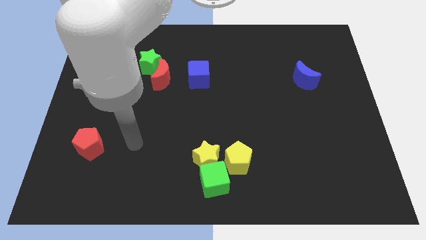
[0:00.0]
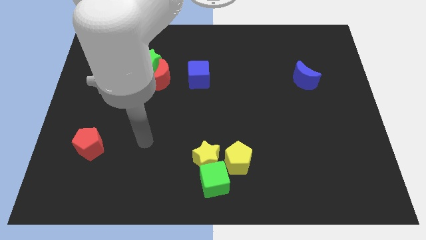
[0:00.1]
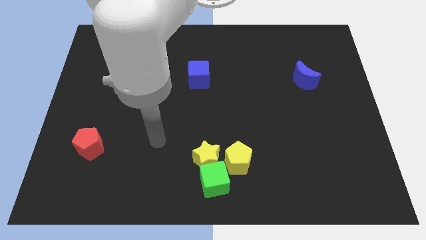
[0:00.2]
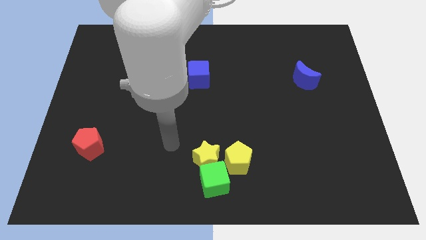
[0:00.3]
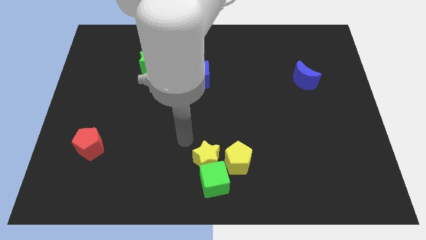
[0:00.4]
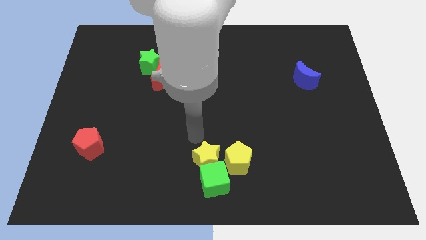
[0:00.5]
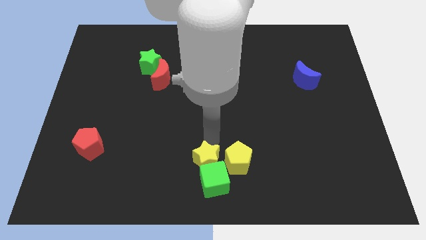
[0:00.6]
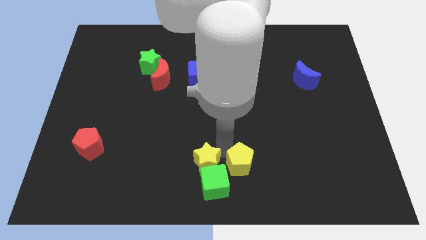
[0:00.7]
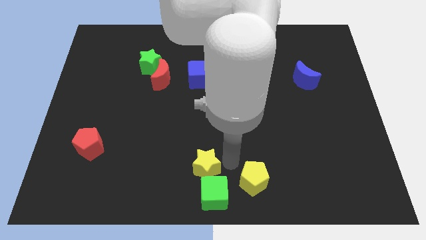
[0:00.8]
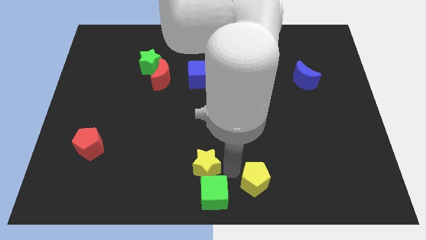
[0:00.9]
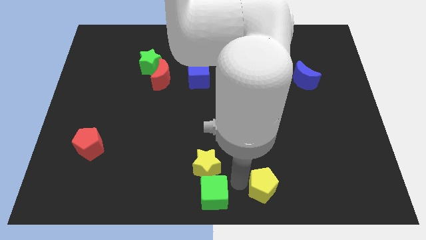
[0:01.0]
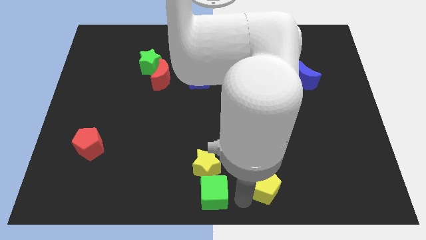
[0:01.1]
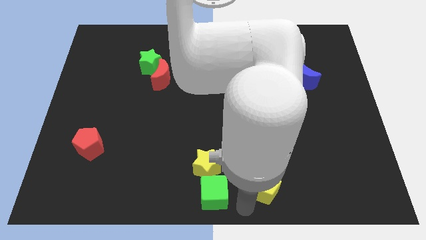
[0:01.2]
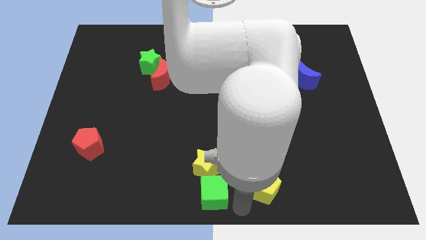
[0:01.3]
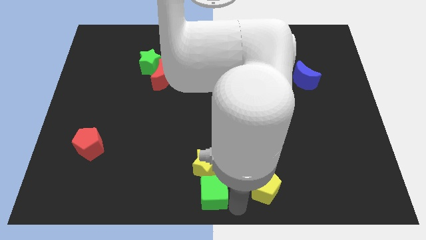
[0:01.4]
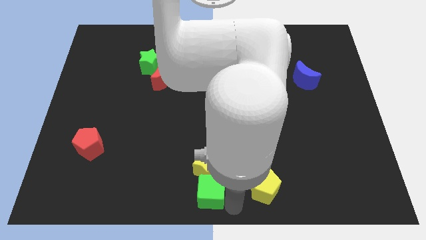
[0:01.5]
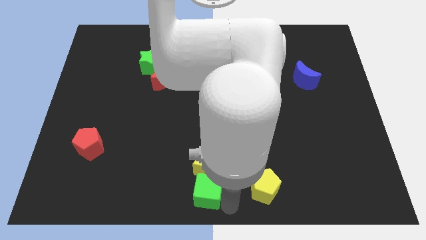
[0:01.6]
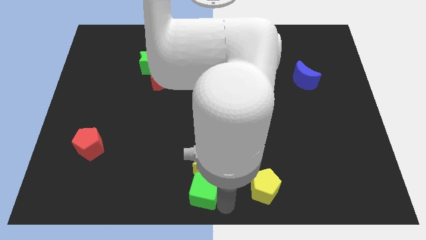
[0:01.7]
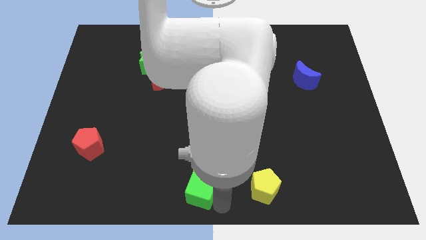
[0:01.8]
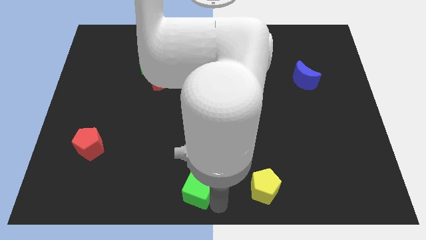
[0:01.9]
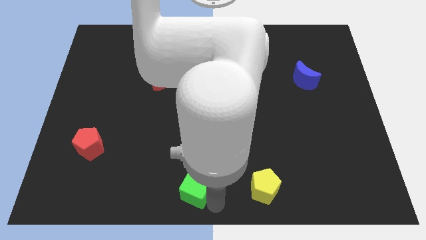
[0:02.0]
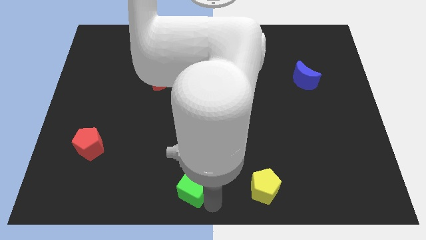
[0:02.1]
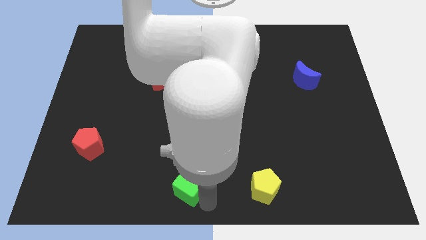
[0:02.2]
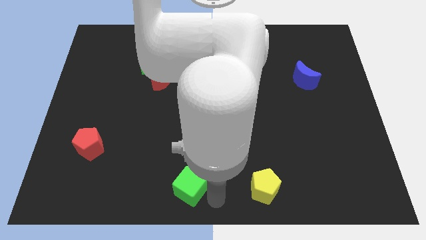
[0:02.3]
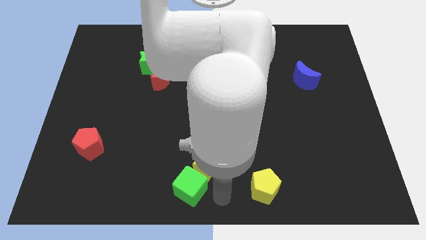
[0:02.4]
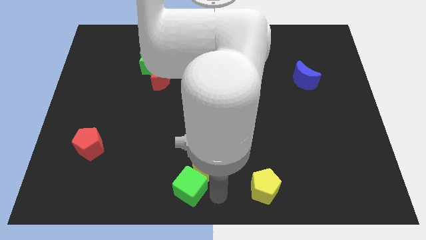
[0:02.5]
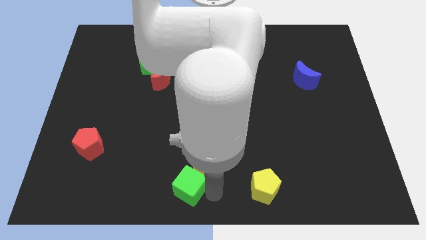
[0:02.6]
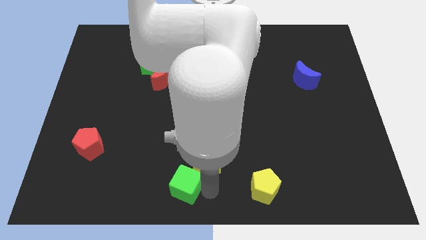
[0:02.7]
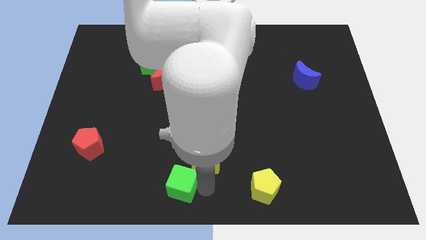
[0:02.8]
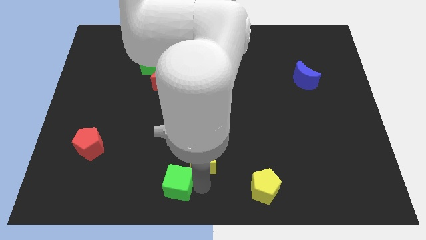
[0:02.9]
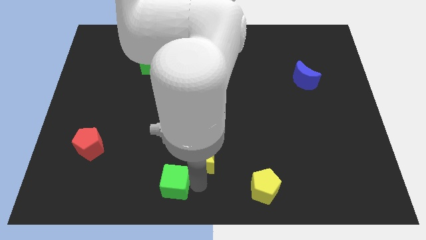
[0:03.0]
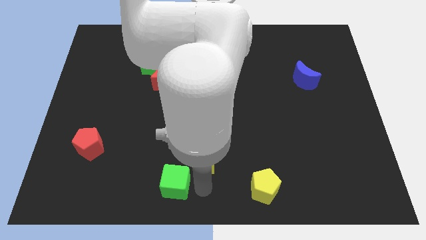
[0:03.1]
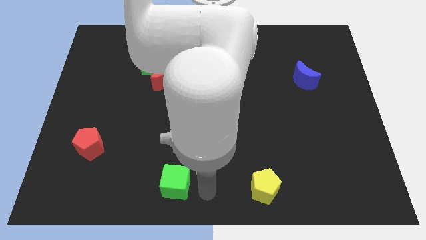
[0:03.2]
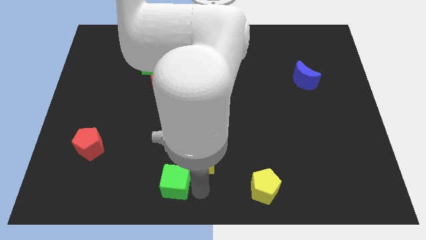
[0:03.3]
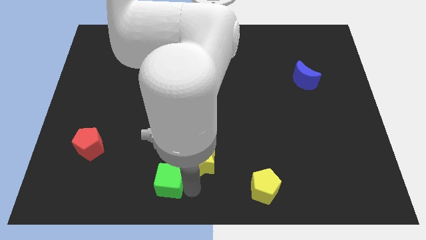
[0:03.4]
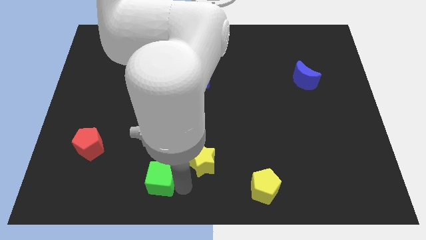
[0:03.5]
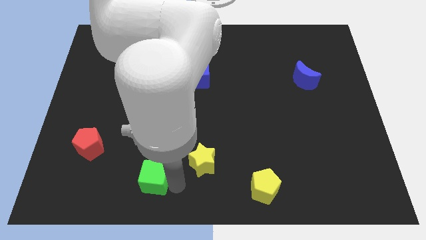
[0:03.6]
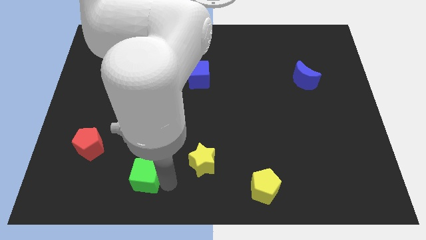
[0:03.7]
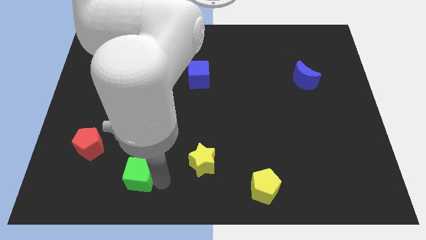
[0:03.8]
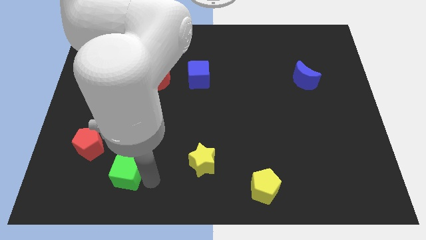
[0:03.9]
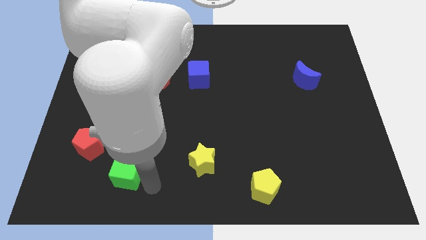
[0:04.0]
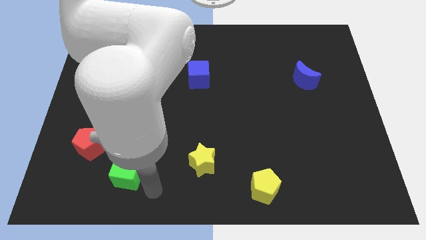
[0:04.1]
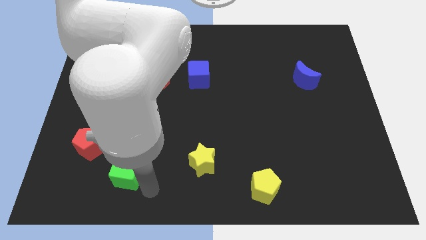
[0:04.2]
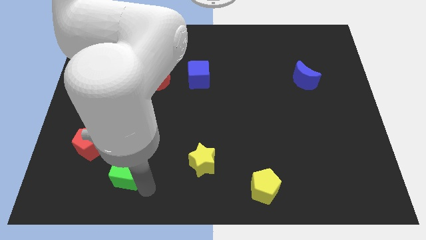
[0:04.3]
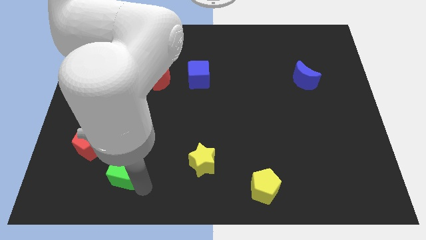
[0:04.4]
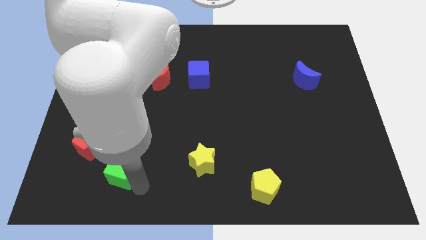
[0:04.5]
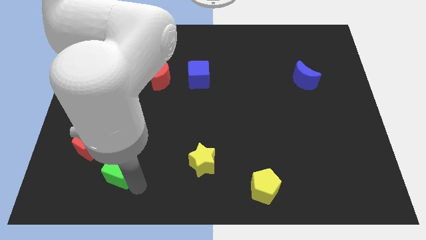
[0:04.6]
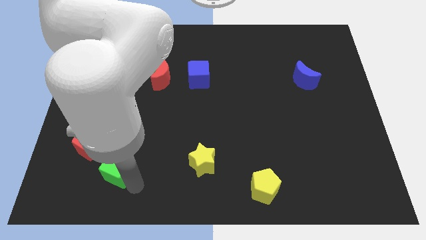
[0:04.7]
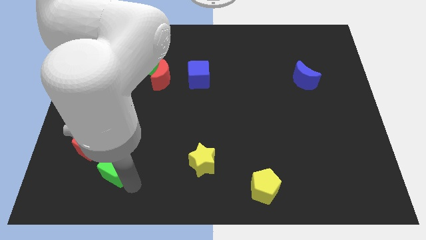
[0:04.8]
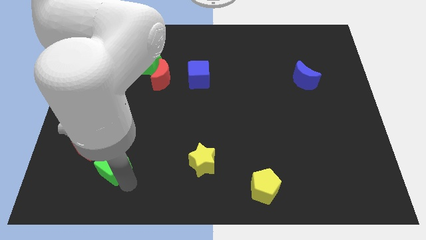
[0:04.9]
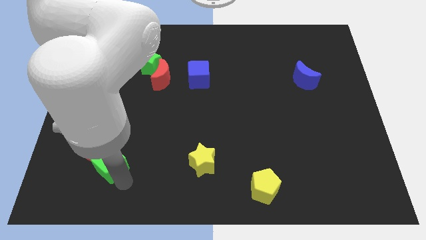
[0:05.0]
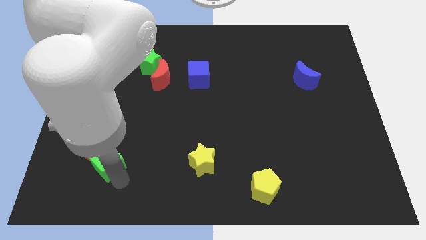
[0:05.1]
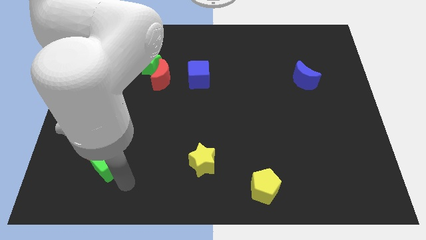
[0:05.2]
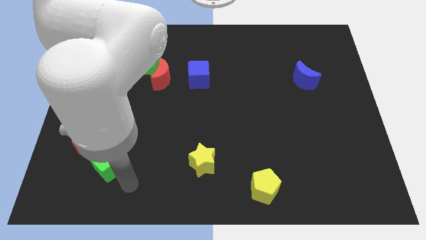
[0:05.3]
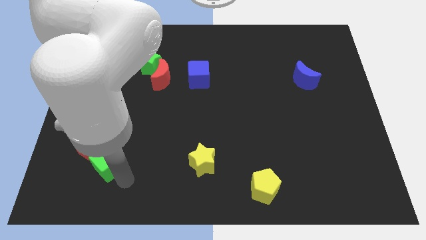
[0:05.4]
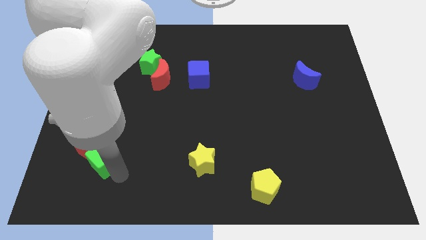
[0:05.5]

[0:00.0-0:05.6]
slide the green cube towards the red pentagon
